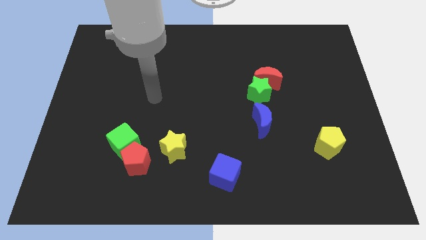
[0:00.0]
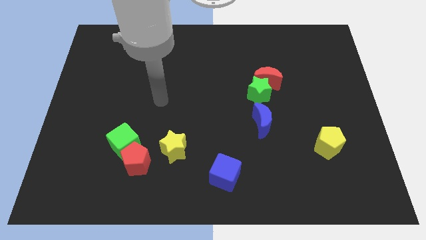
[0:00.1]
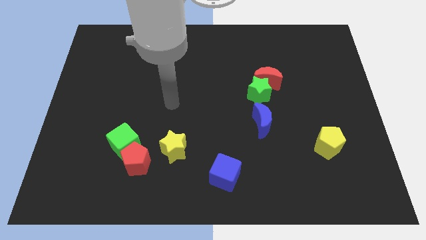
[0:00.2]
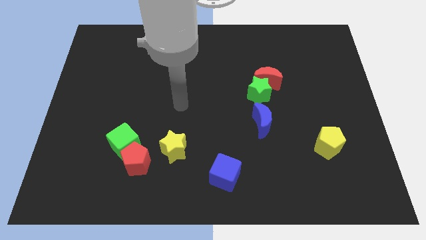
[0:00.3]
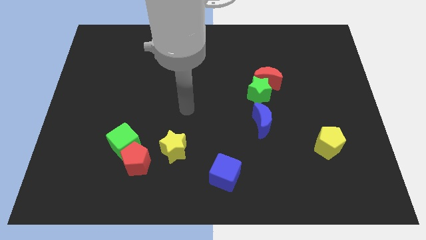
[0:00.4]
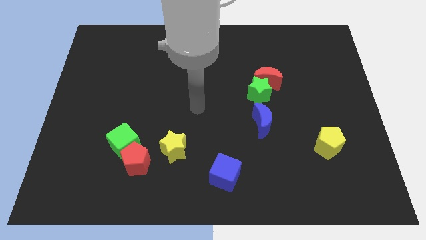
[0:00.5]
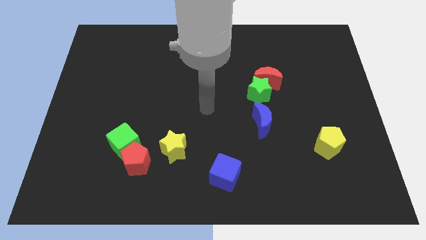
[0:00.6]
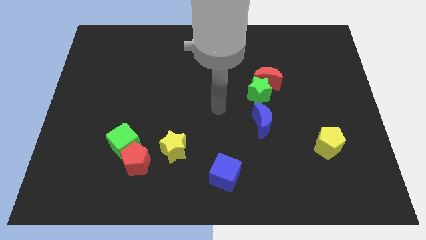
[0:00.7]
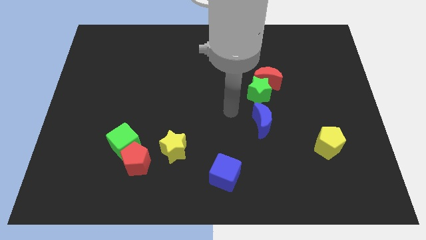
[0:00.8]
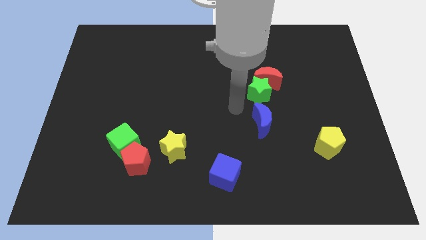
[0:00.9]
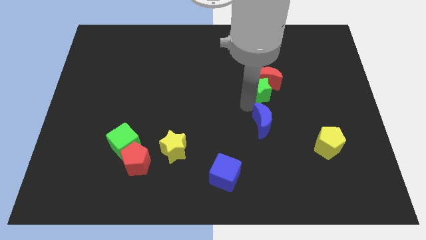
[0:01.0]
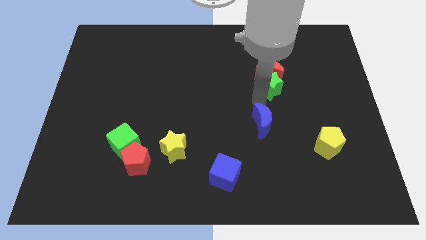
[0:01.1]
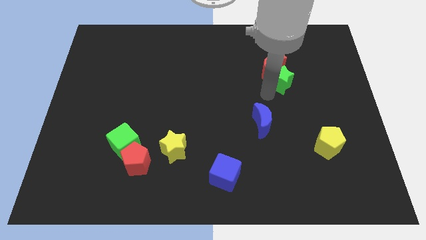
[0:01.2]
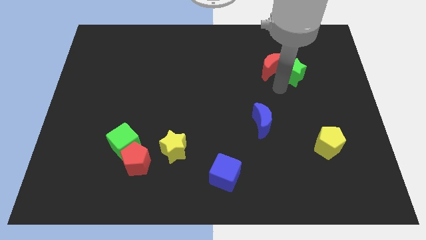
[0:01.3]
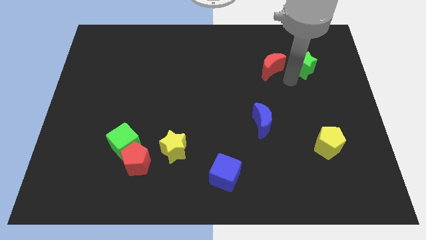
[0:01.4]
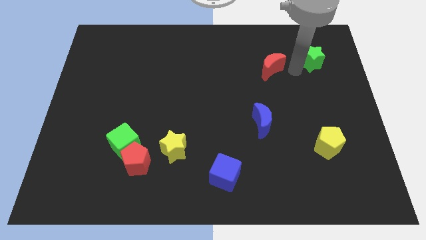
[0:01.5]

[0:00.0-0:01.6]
move the red moon away from the green star

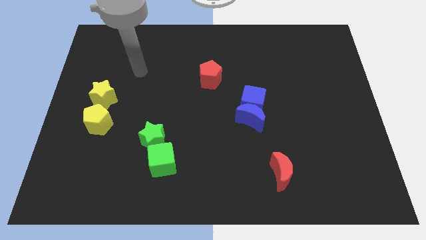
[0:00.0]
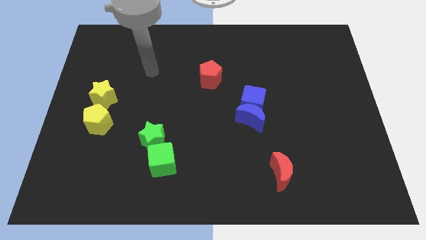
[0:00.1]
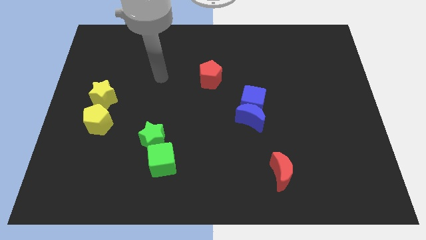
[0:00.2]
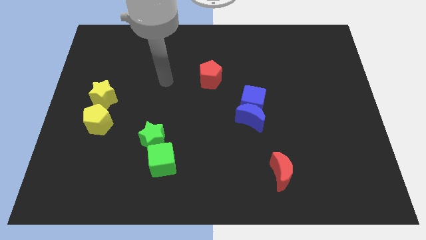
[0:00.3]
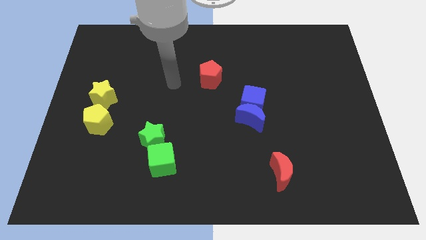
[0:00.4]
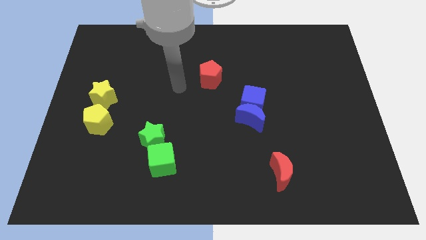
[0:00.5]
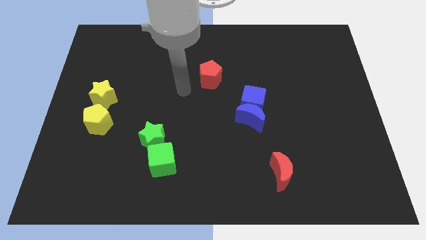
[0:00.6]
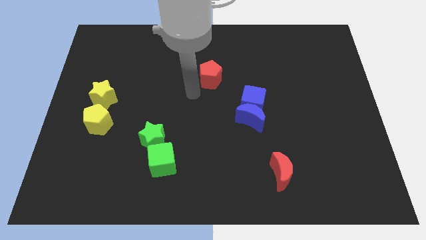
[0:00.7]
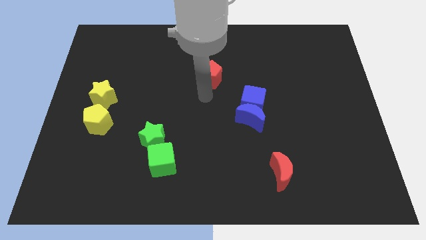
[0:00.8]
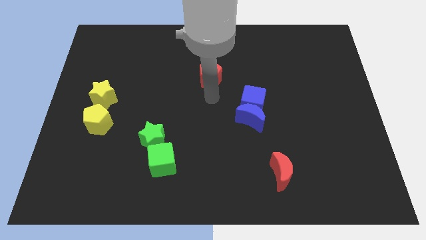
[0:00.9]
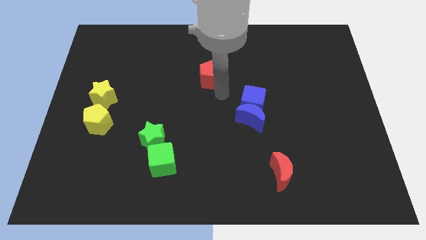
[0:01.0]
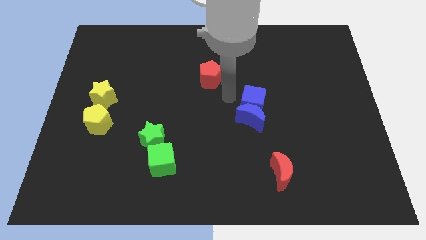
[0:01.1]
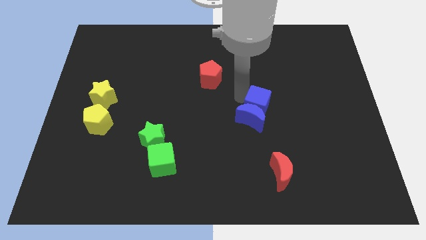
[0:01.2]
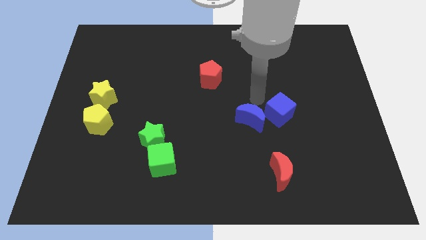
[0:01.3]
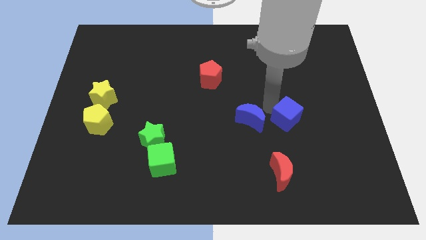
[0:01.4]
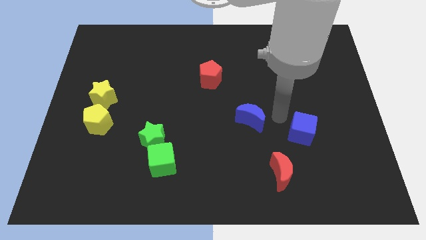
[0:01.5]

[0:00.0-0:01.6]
pull the blue moon apart from the blue cube

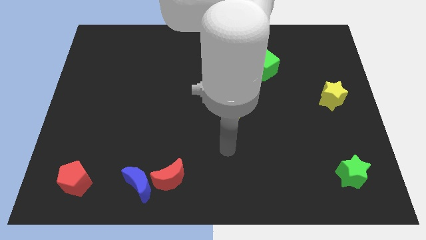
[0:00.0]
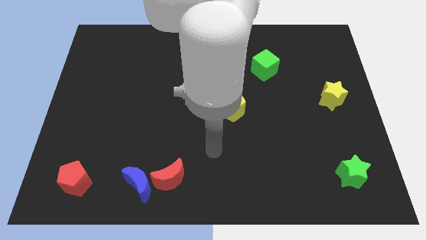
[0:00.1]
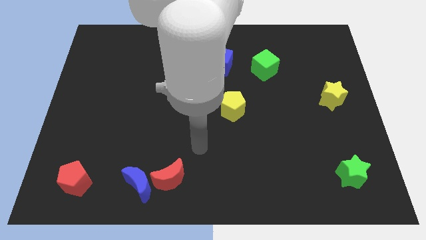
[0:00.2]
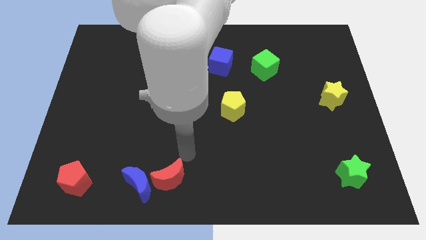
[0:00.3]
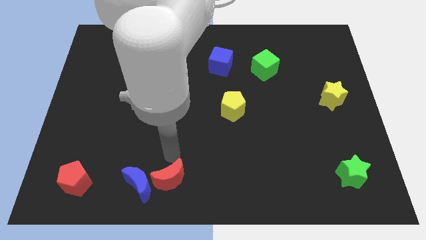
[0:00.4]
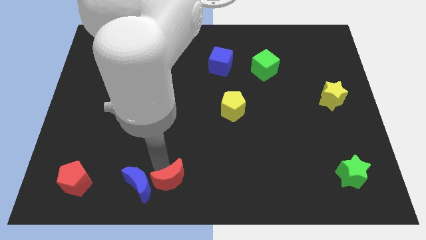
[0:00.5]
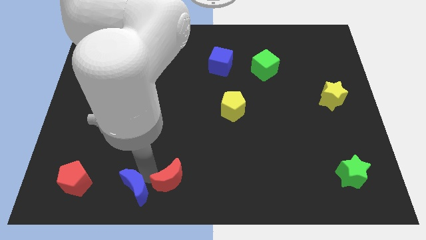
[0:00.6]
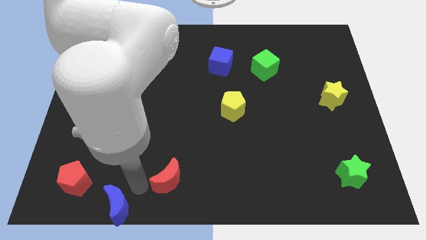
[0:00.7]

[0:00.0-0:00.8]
move the red moon away from the blue moon

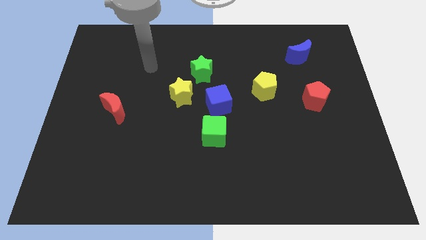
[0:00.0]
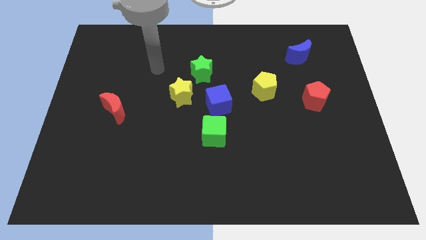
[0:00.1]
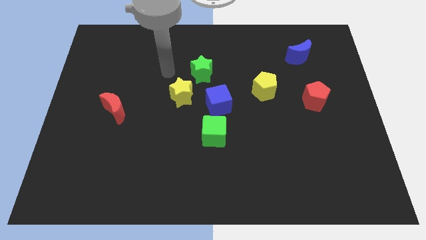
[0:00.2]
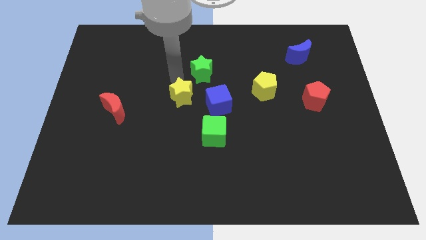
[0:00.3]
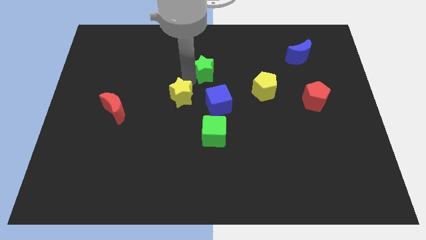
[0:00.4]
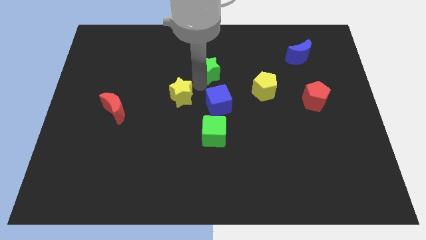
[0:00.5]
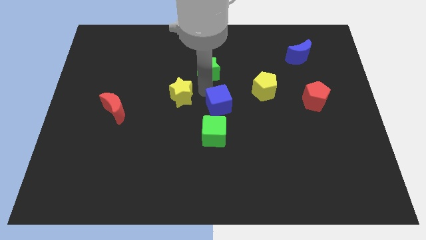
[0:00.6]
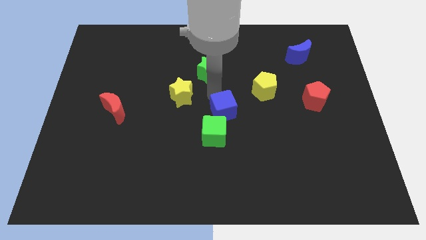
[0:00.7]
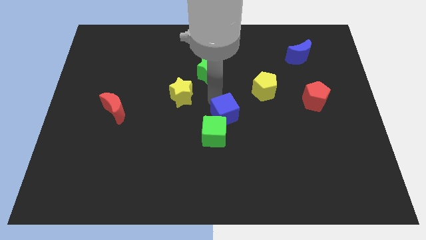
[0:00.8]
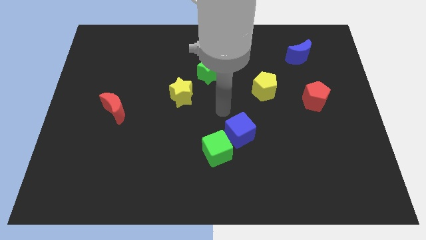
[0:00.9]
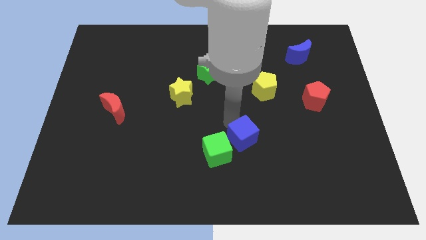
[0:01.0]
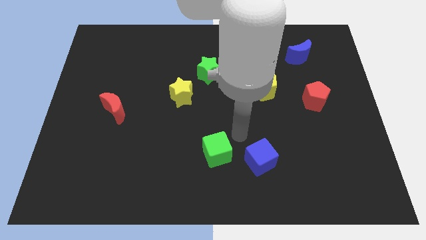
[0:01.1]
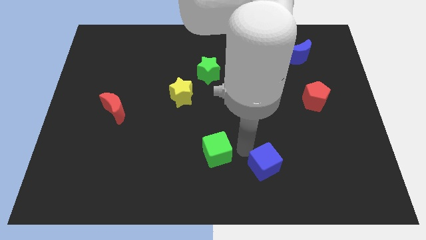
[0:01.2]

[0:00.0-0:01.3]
pull the green cube apart from the blue cube

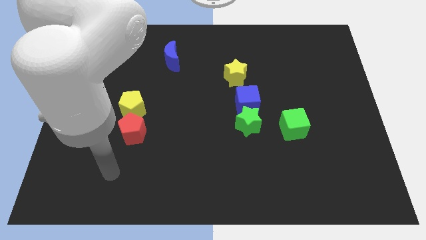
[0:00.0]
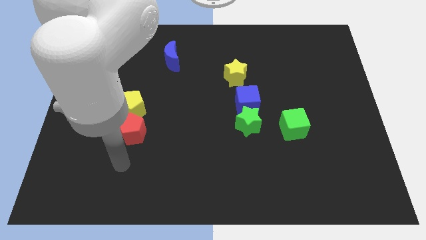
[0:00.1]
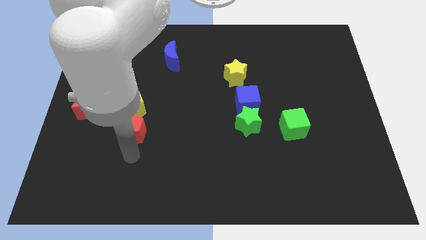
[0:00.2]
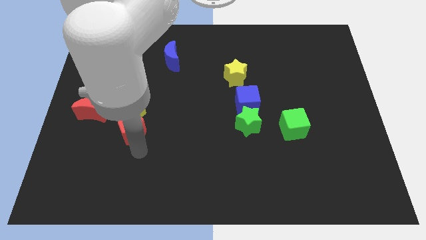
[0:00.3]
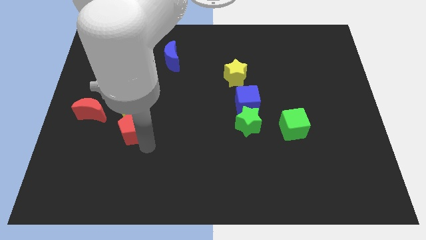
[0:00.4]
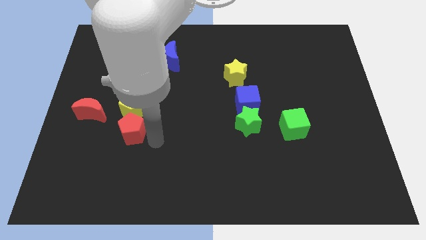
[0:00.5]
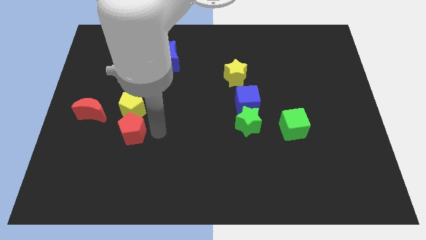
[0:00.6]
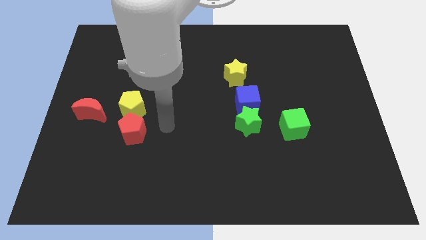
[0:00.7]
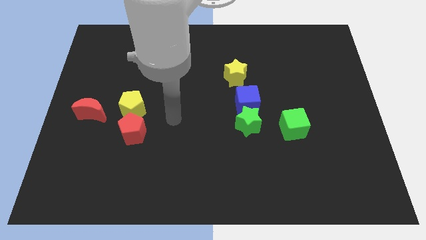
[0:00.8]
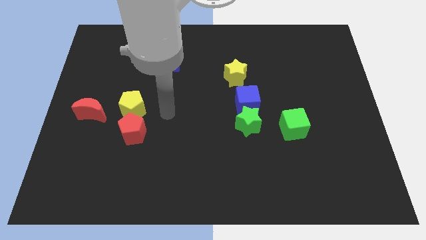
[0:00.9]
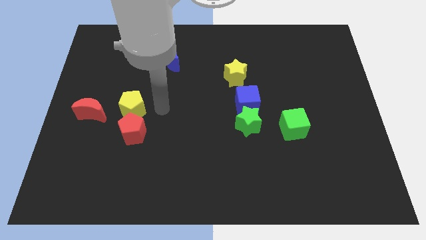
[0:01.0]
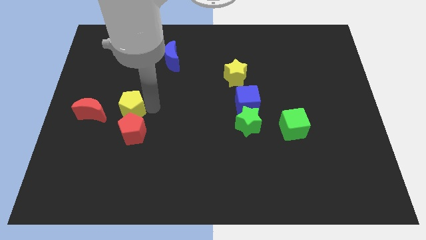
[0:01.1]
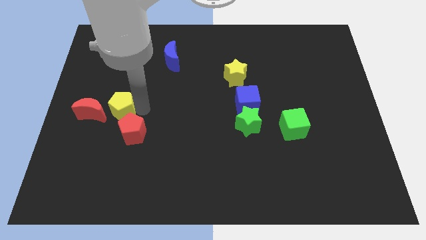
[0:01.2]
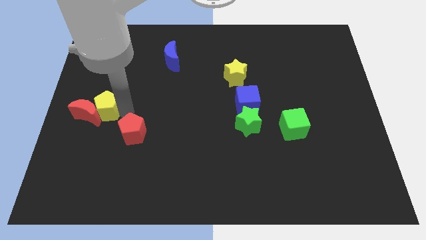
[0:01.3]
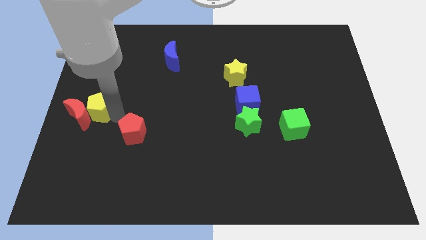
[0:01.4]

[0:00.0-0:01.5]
move the red pentagon away from the yellow pentagon

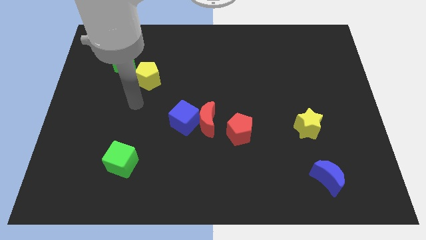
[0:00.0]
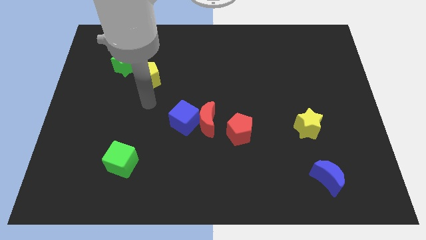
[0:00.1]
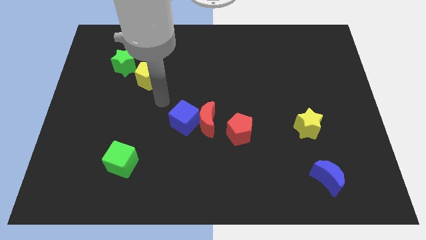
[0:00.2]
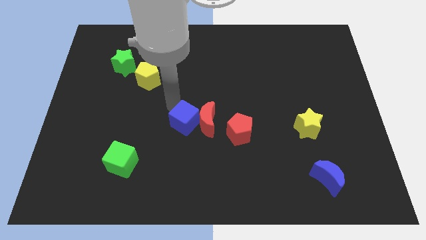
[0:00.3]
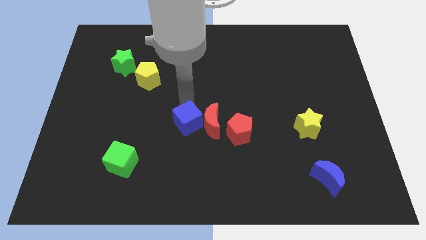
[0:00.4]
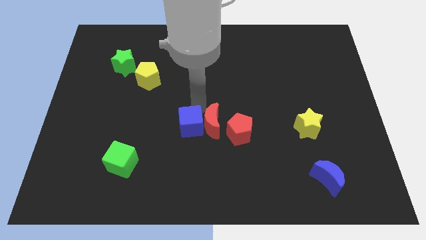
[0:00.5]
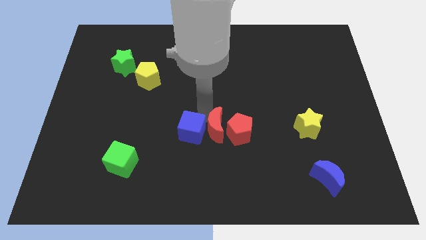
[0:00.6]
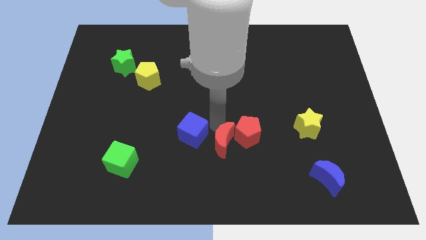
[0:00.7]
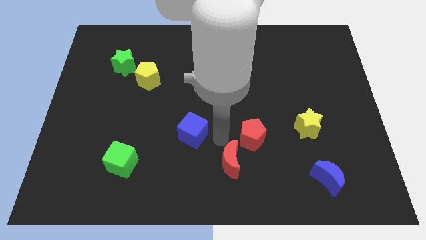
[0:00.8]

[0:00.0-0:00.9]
separate the blue cube from the red moon

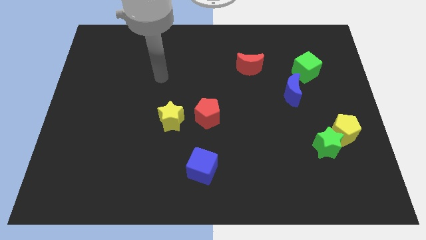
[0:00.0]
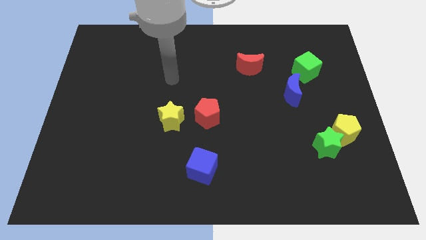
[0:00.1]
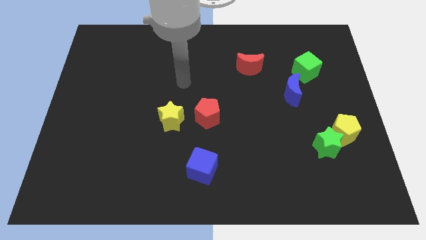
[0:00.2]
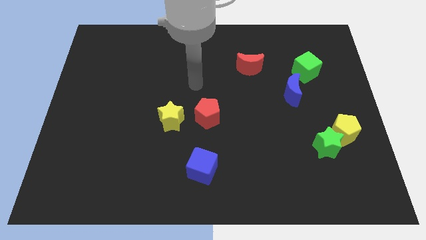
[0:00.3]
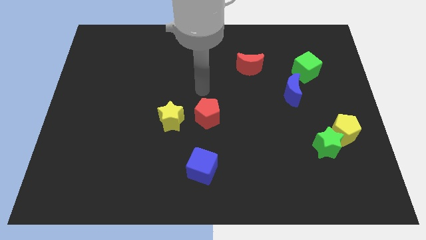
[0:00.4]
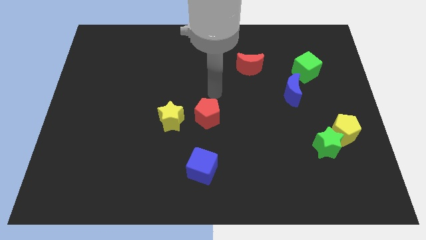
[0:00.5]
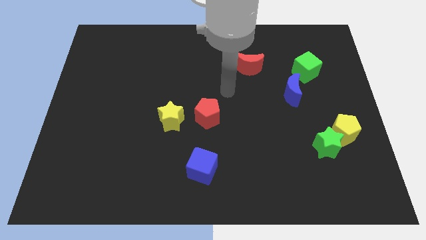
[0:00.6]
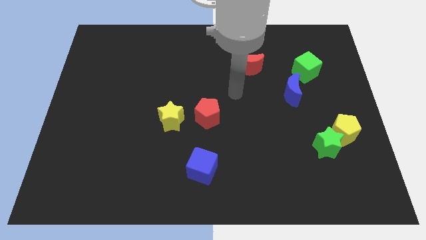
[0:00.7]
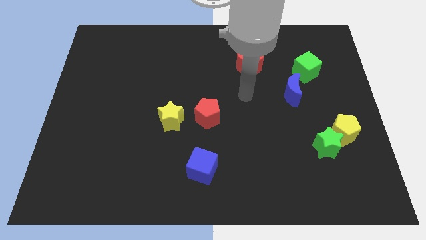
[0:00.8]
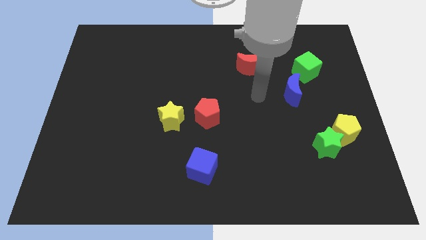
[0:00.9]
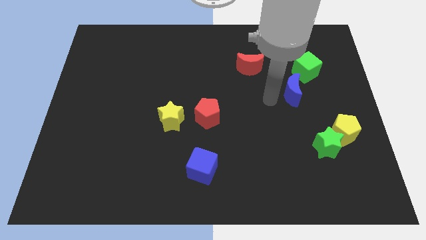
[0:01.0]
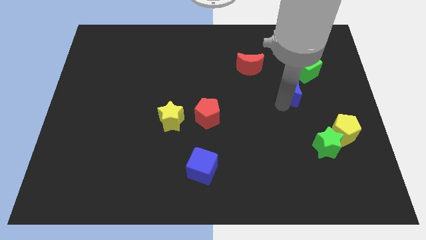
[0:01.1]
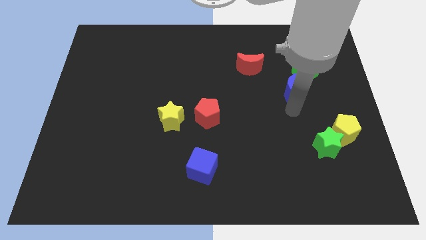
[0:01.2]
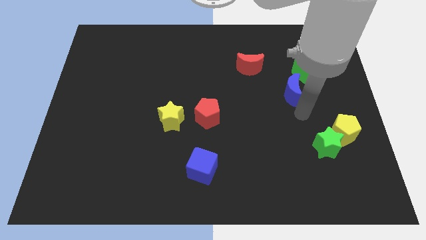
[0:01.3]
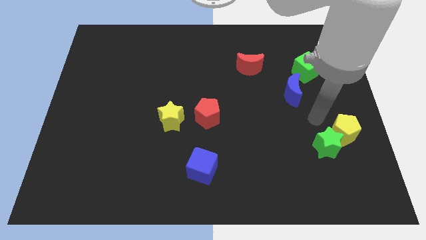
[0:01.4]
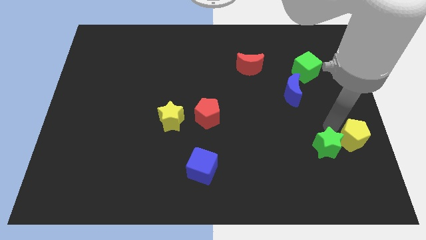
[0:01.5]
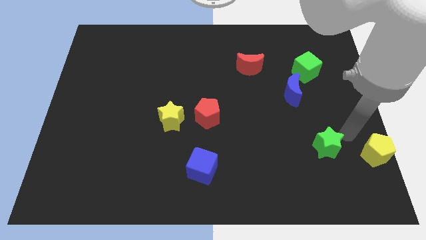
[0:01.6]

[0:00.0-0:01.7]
separate the green star from the yellow pentagon
